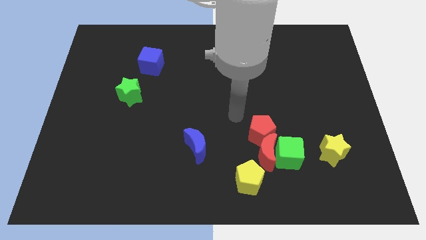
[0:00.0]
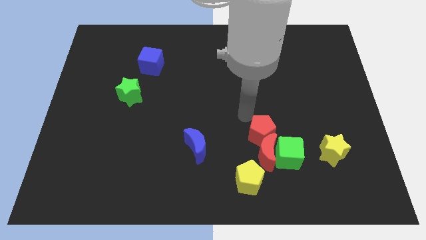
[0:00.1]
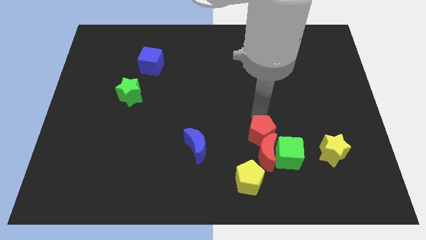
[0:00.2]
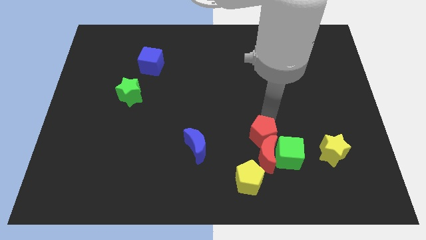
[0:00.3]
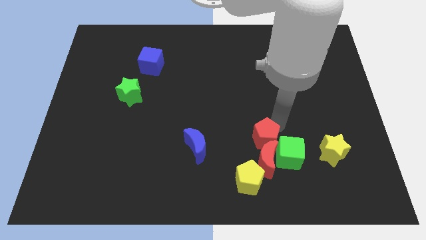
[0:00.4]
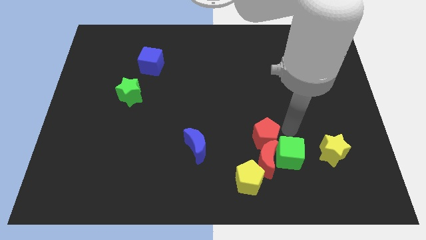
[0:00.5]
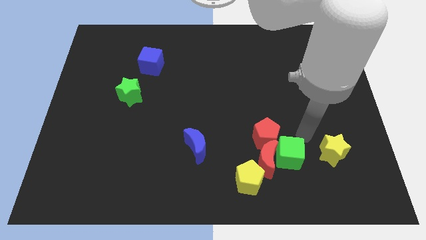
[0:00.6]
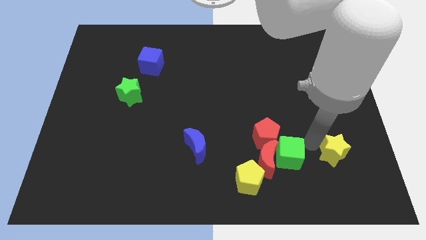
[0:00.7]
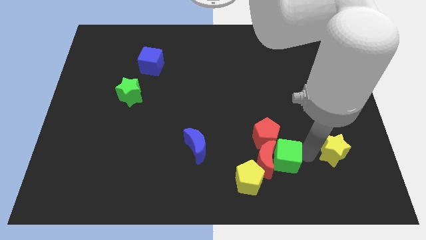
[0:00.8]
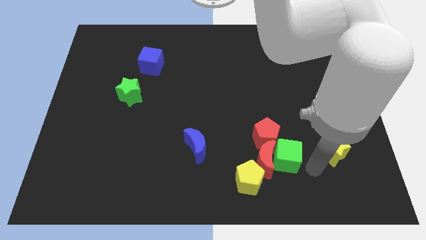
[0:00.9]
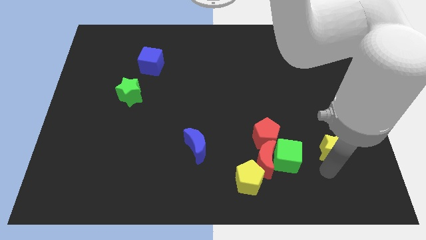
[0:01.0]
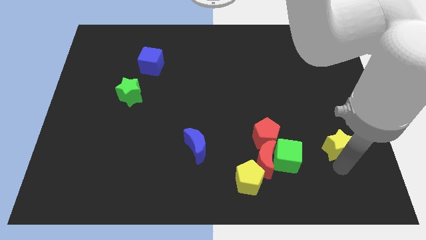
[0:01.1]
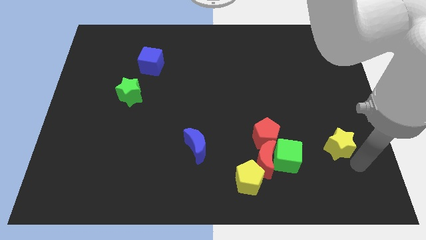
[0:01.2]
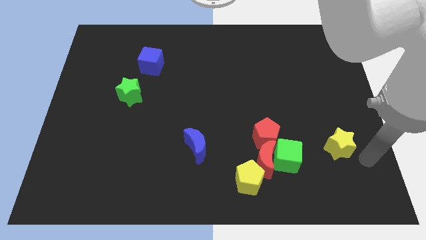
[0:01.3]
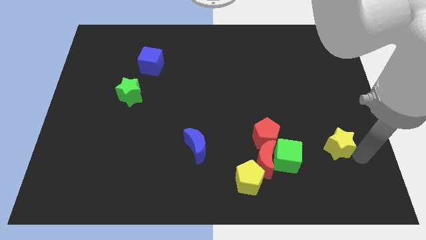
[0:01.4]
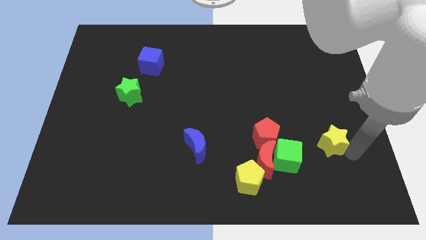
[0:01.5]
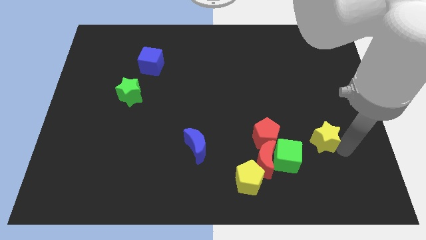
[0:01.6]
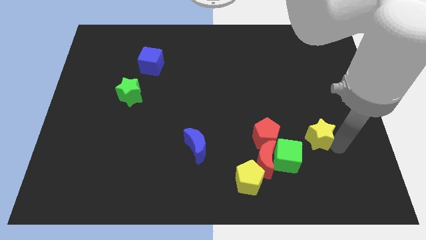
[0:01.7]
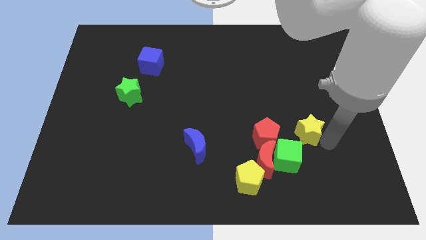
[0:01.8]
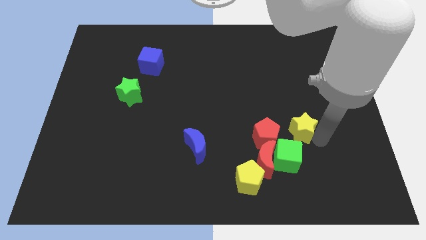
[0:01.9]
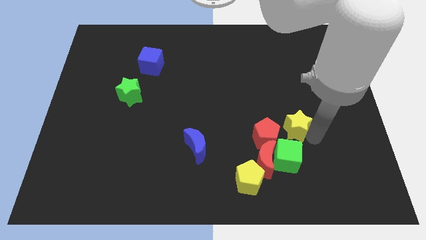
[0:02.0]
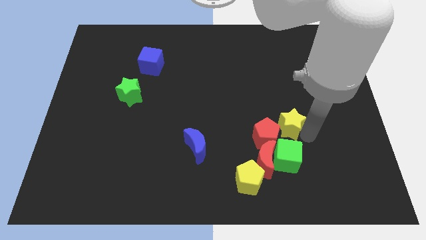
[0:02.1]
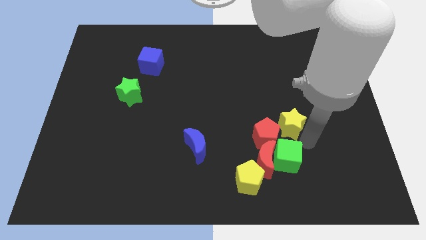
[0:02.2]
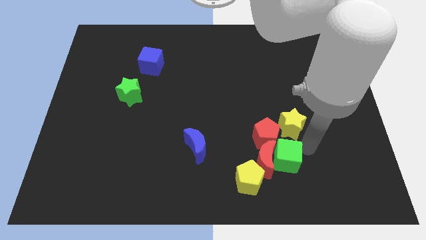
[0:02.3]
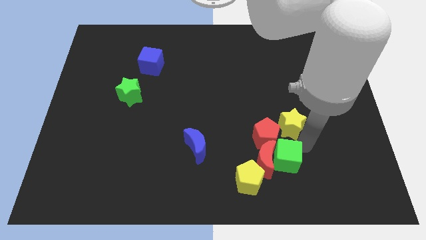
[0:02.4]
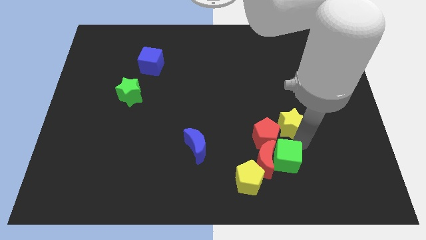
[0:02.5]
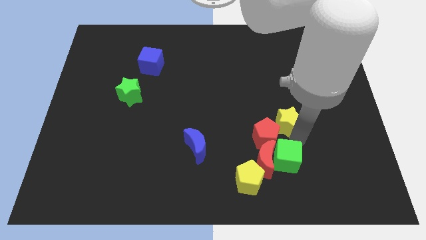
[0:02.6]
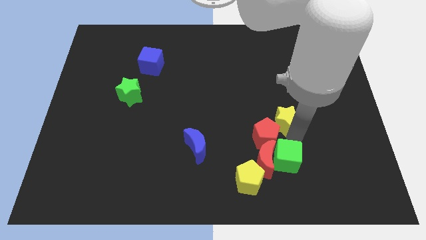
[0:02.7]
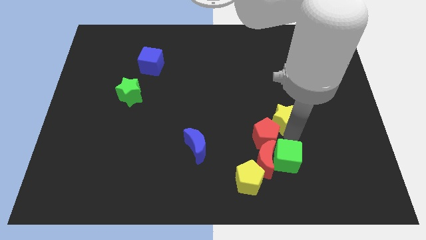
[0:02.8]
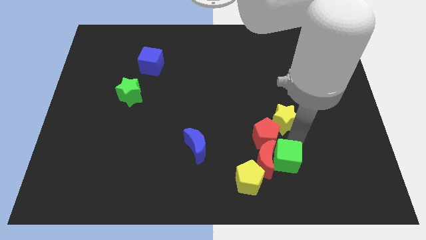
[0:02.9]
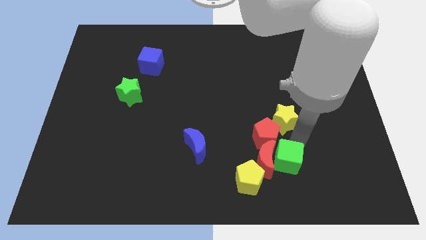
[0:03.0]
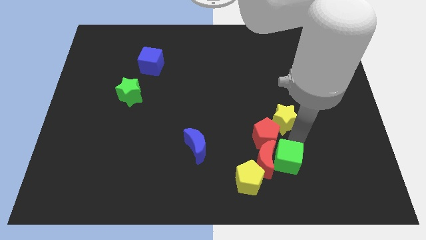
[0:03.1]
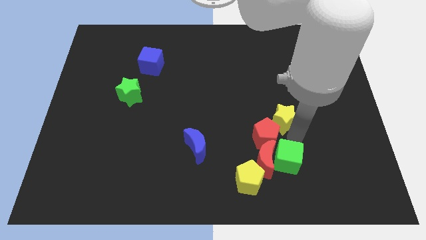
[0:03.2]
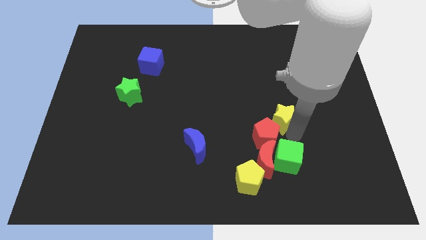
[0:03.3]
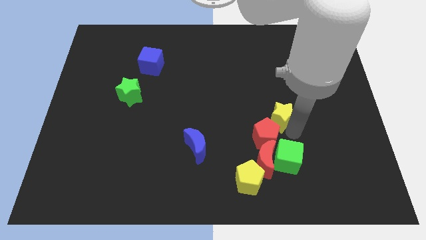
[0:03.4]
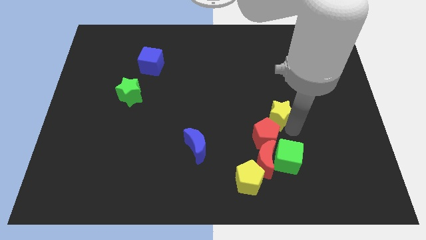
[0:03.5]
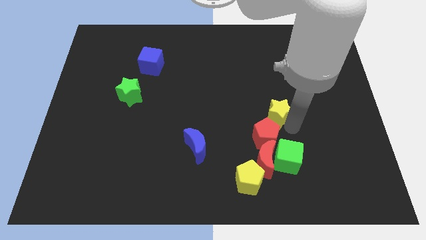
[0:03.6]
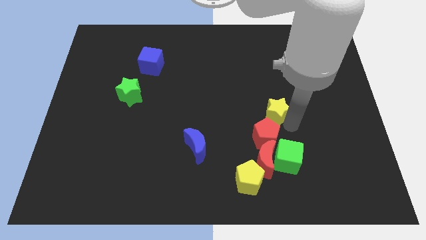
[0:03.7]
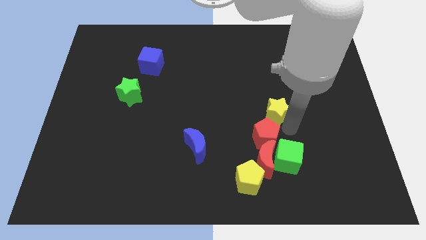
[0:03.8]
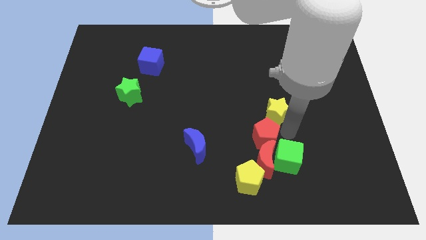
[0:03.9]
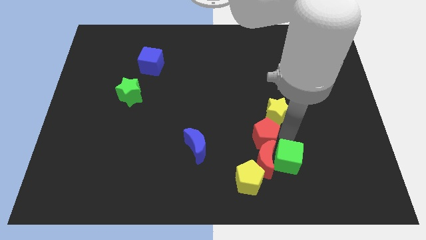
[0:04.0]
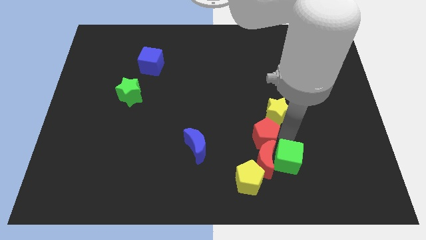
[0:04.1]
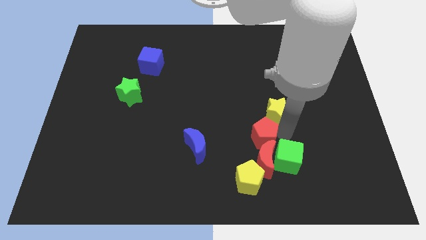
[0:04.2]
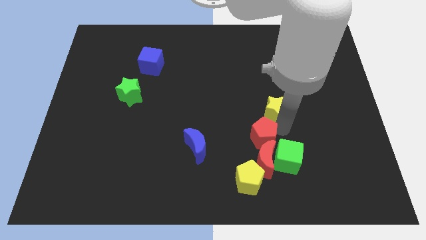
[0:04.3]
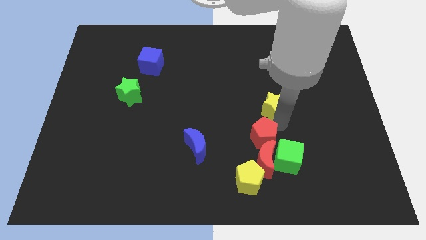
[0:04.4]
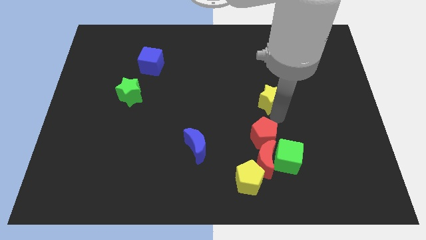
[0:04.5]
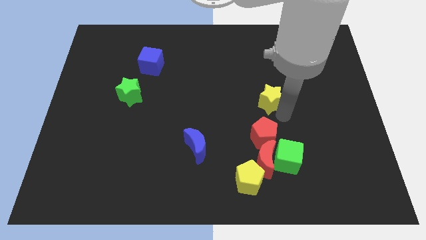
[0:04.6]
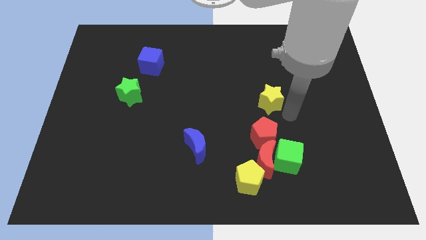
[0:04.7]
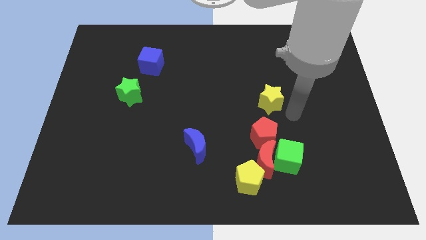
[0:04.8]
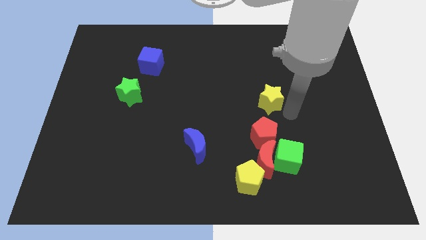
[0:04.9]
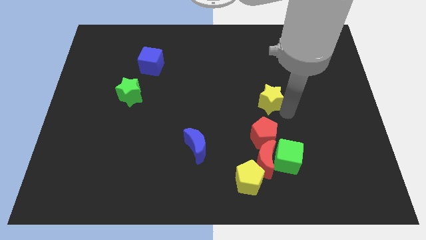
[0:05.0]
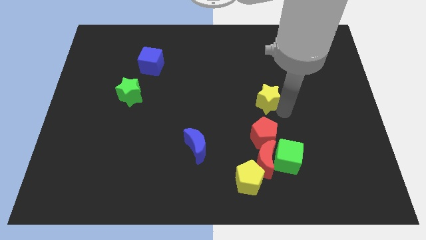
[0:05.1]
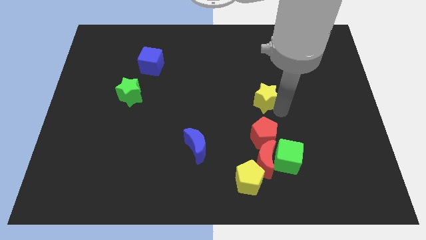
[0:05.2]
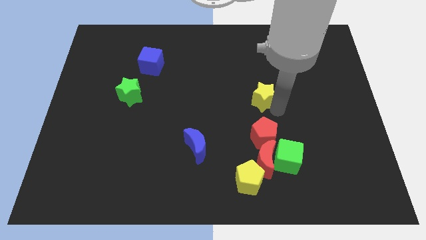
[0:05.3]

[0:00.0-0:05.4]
push the yellow star up and left

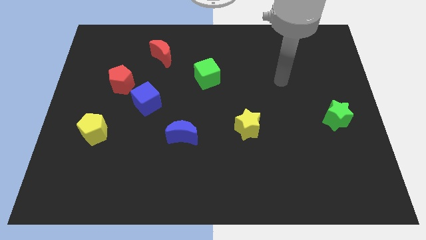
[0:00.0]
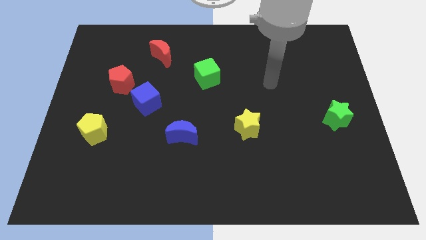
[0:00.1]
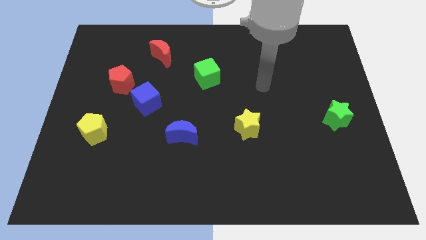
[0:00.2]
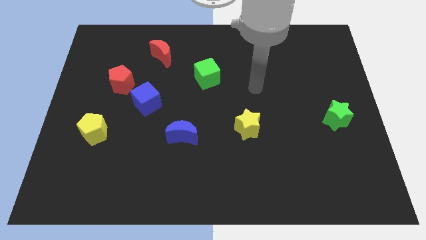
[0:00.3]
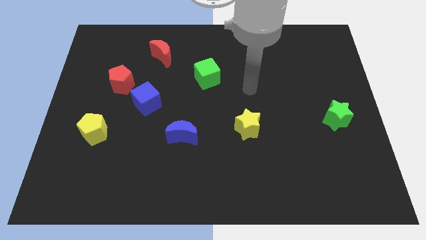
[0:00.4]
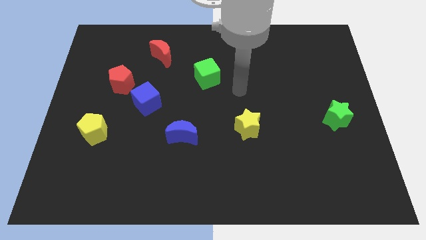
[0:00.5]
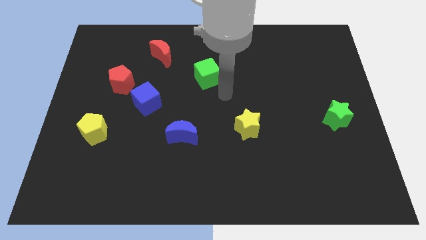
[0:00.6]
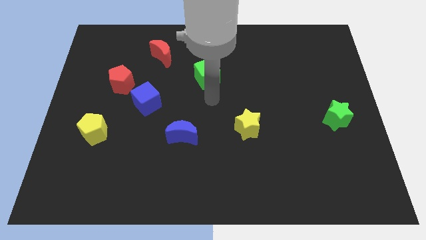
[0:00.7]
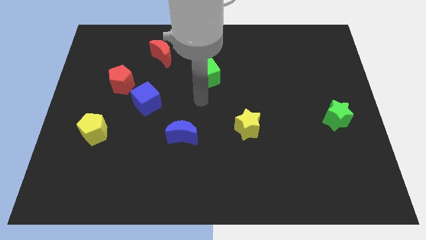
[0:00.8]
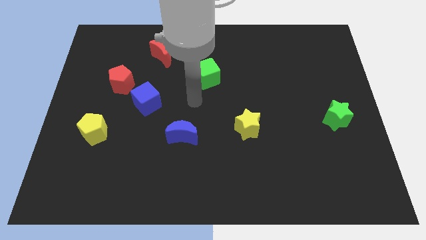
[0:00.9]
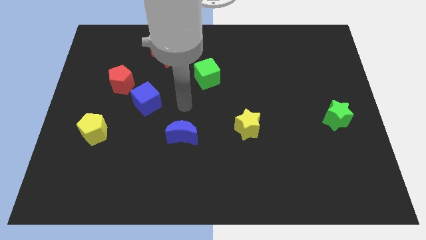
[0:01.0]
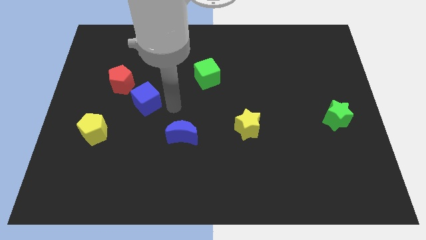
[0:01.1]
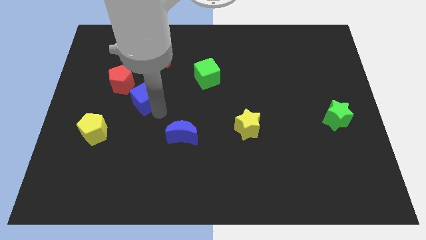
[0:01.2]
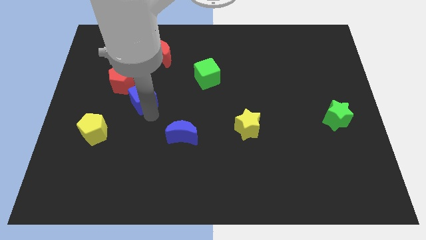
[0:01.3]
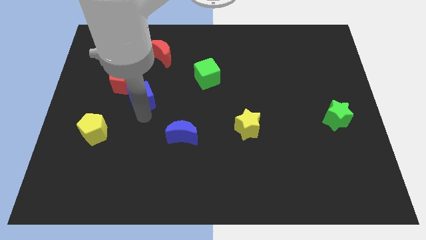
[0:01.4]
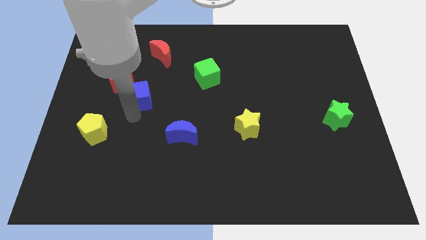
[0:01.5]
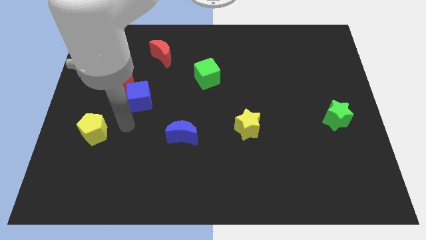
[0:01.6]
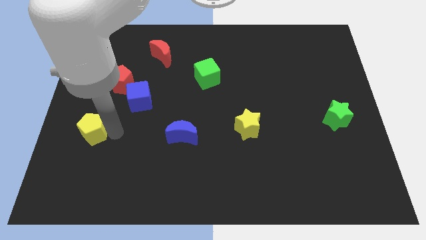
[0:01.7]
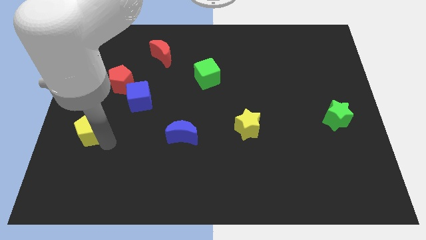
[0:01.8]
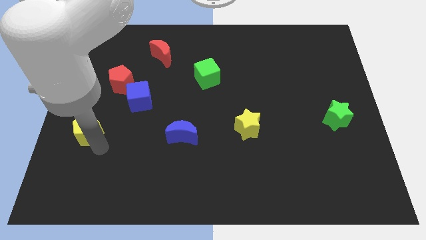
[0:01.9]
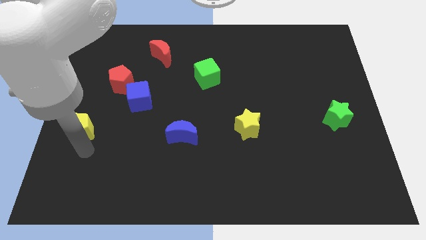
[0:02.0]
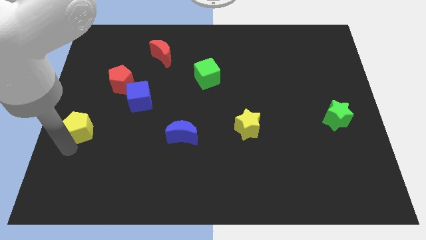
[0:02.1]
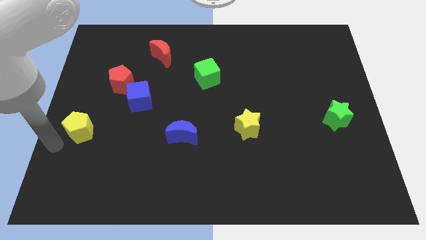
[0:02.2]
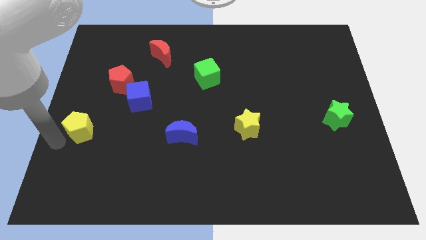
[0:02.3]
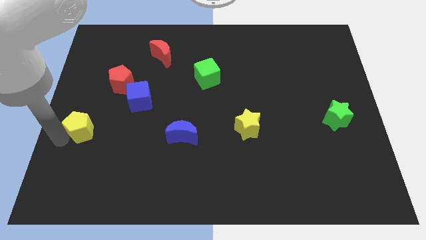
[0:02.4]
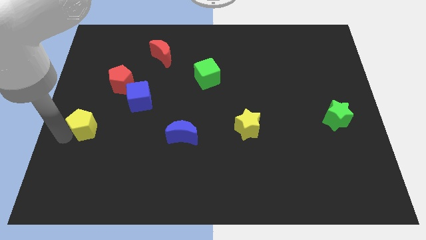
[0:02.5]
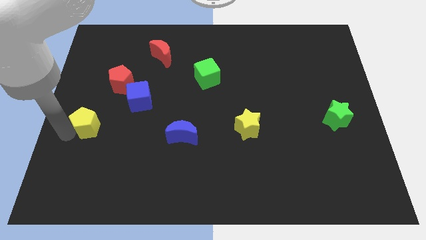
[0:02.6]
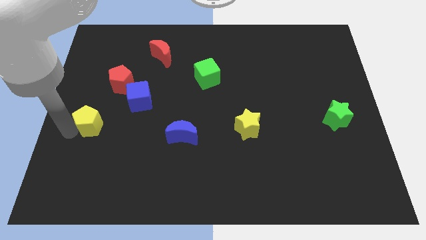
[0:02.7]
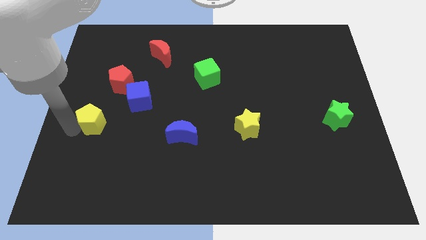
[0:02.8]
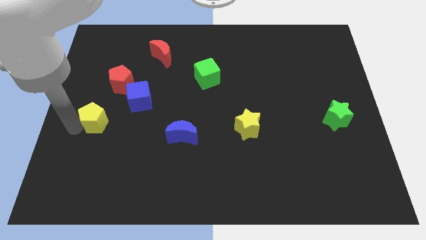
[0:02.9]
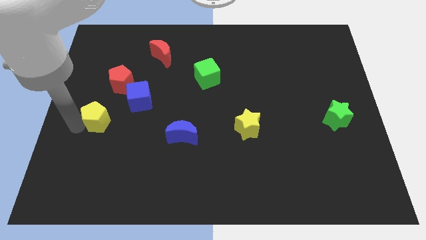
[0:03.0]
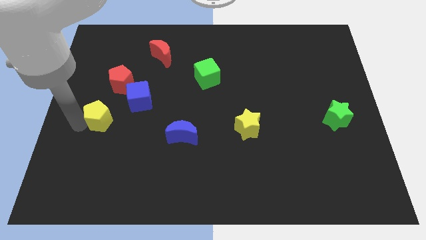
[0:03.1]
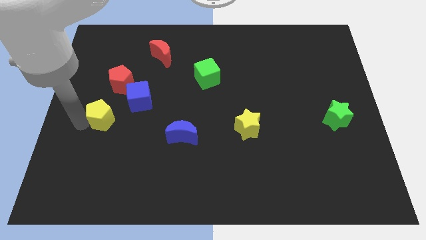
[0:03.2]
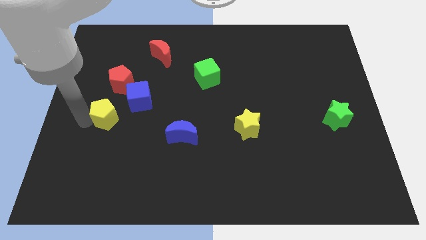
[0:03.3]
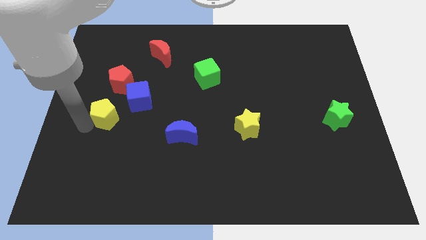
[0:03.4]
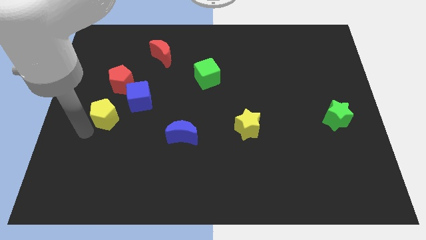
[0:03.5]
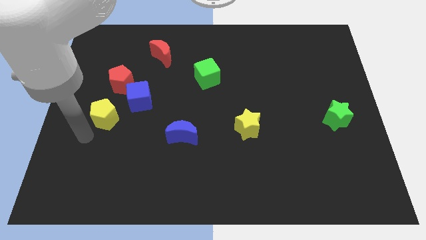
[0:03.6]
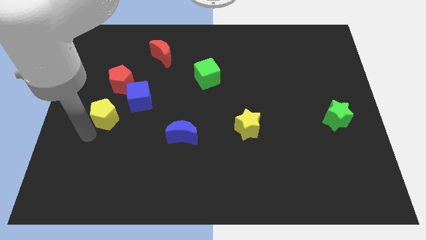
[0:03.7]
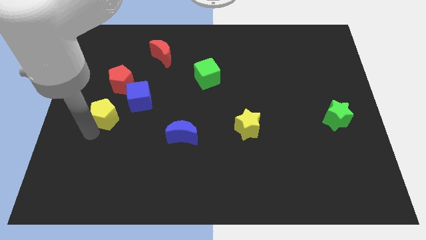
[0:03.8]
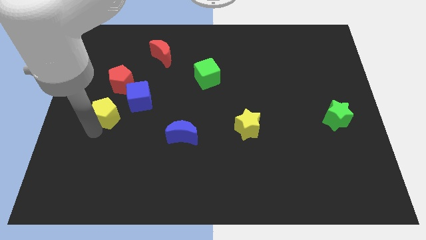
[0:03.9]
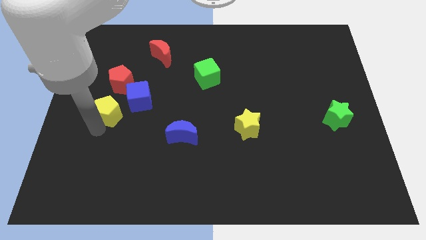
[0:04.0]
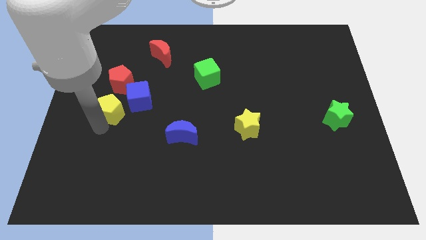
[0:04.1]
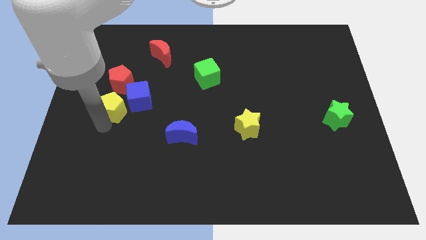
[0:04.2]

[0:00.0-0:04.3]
slightly slide the yellow pentagon upwards and right diagonally
